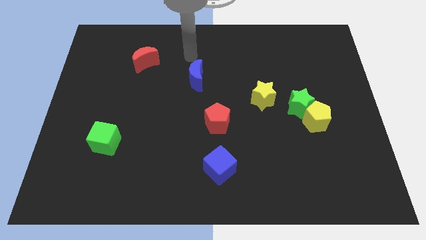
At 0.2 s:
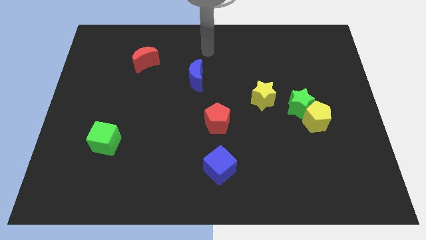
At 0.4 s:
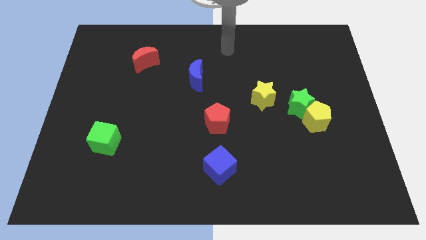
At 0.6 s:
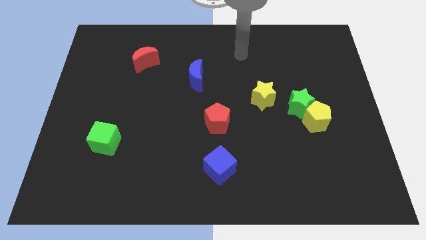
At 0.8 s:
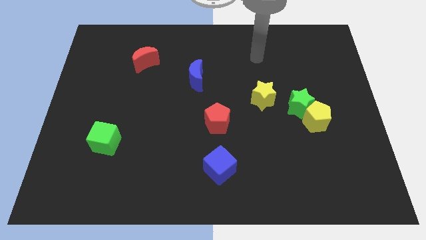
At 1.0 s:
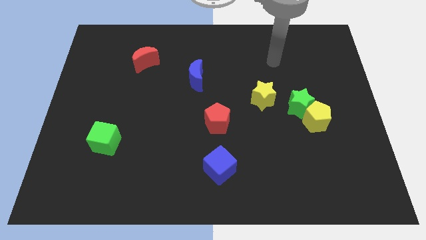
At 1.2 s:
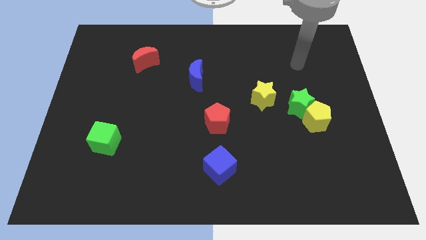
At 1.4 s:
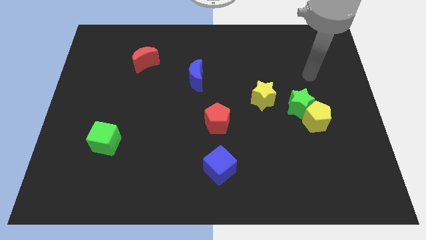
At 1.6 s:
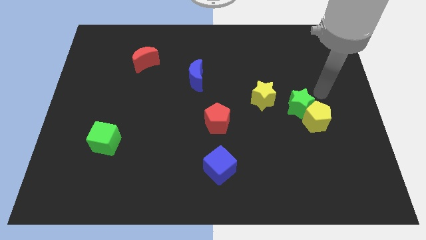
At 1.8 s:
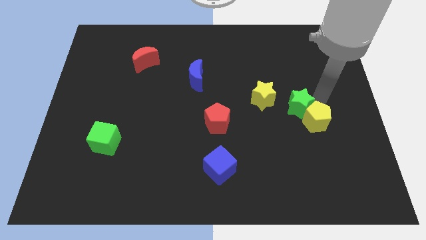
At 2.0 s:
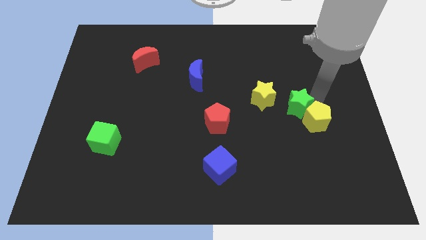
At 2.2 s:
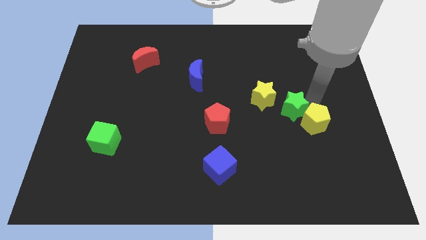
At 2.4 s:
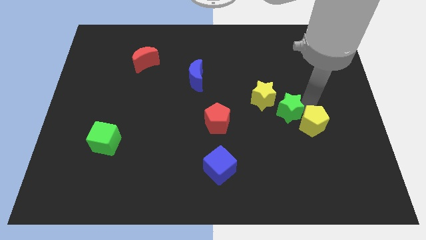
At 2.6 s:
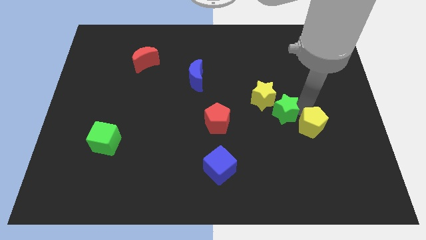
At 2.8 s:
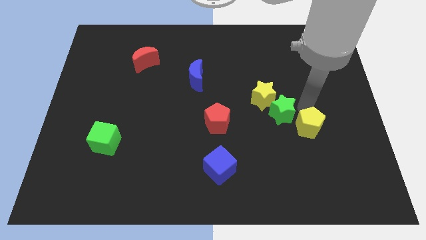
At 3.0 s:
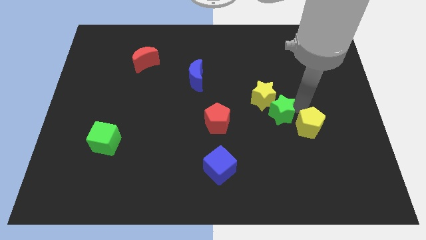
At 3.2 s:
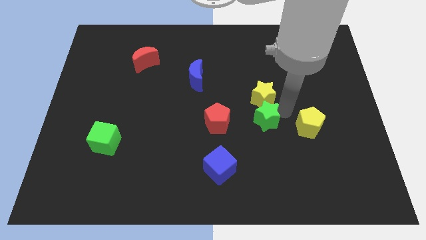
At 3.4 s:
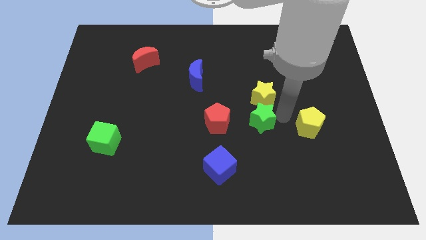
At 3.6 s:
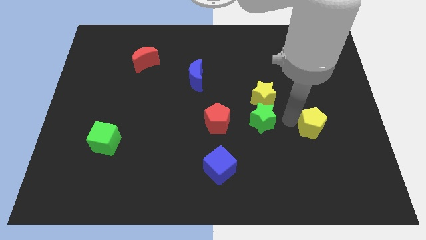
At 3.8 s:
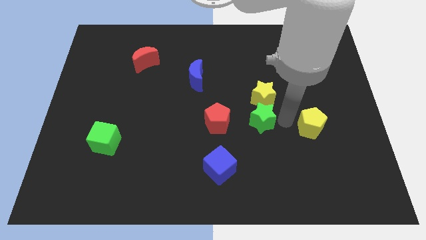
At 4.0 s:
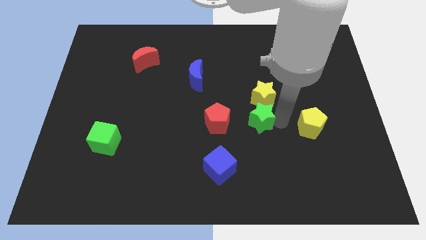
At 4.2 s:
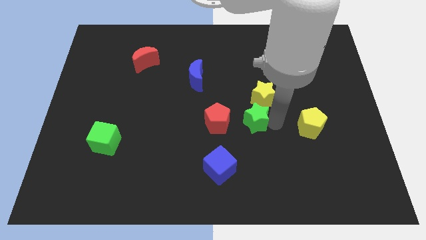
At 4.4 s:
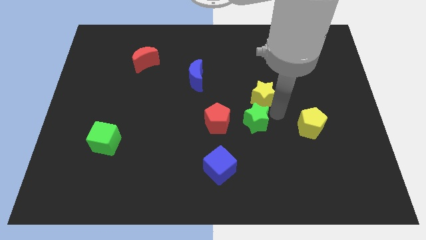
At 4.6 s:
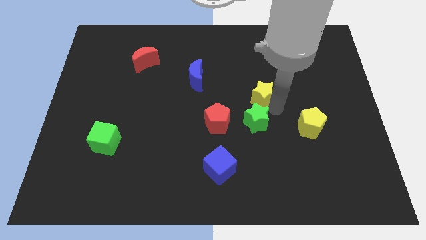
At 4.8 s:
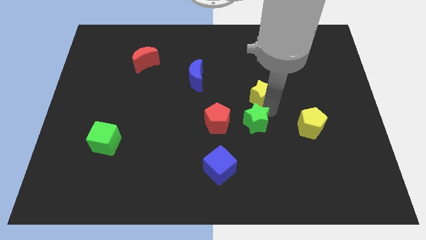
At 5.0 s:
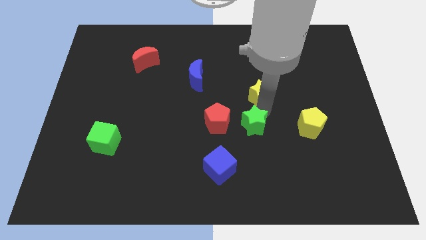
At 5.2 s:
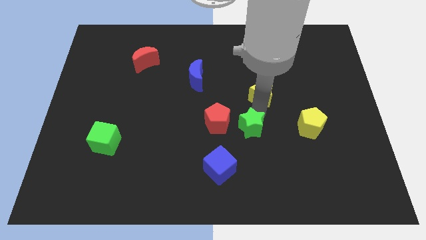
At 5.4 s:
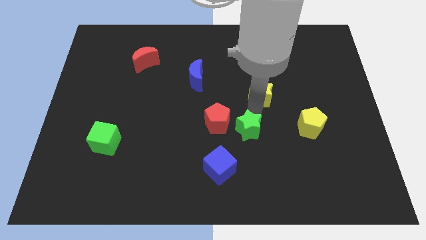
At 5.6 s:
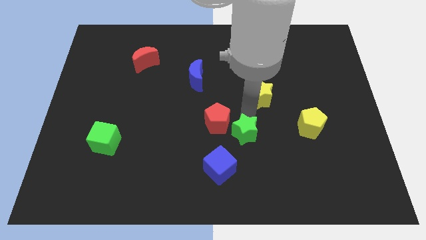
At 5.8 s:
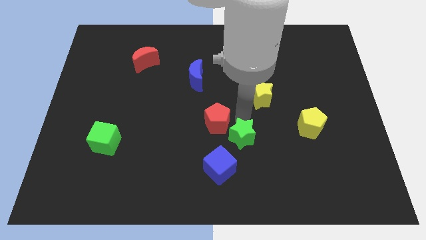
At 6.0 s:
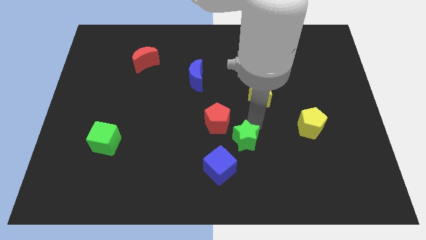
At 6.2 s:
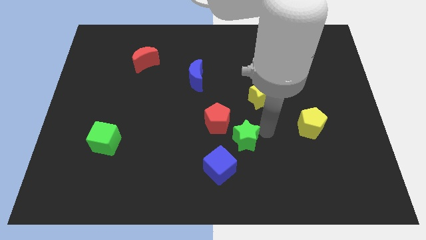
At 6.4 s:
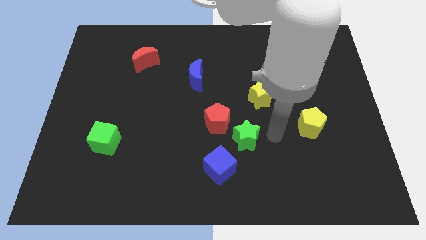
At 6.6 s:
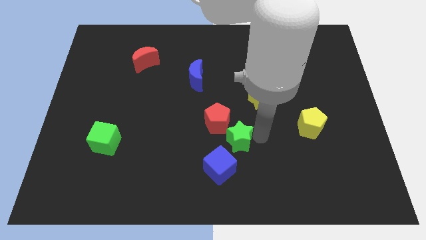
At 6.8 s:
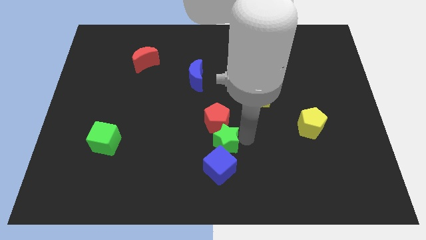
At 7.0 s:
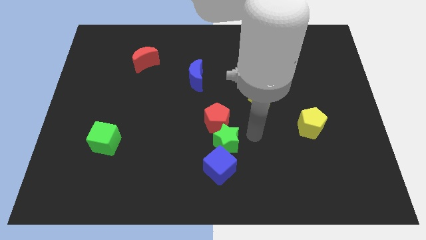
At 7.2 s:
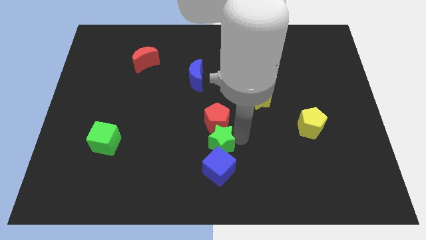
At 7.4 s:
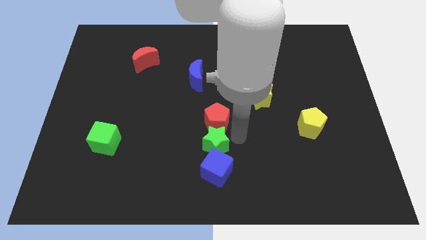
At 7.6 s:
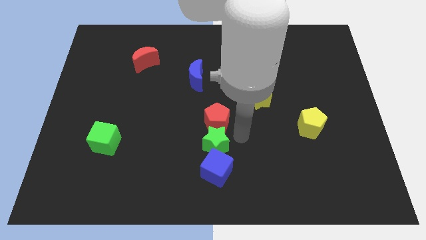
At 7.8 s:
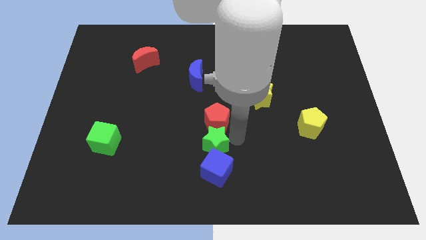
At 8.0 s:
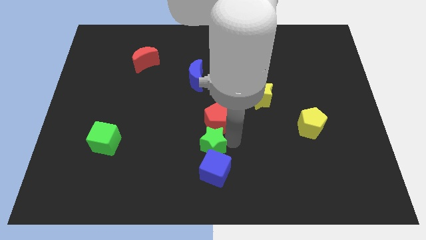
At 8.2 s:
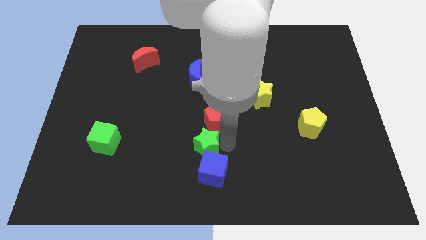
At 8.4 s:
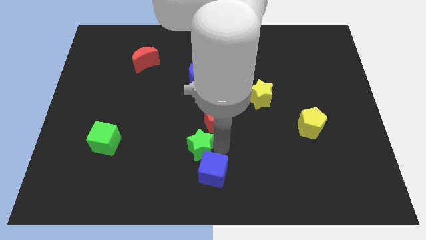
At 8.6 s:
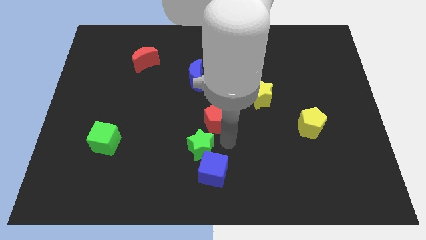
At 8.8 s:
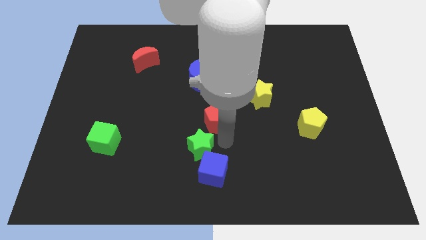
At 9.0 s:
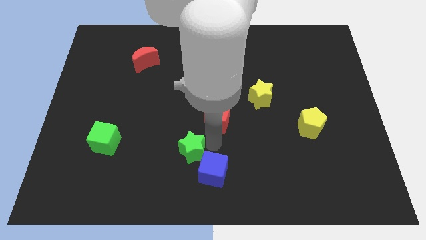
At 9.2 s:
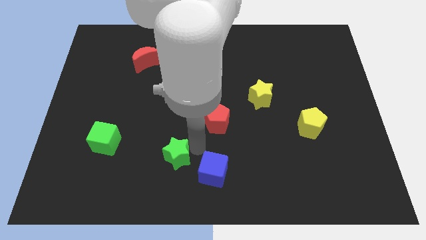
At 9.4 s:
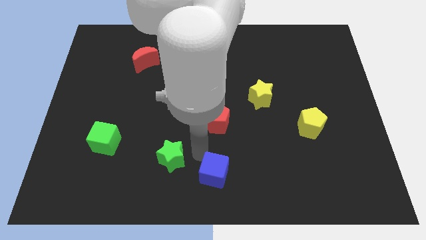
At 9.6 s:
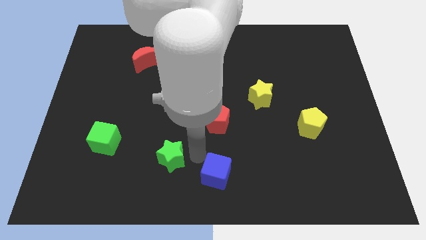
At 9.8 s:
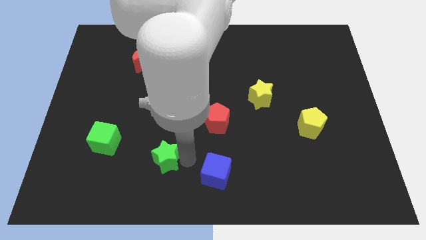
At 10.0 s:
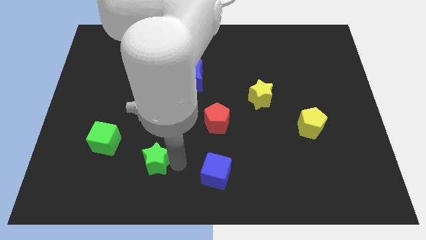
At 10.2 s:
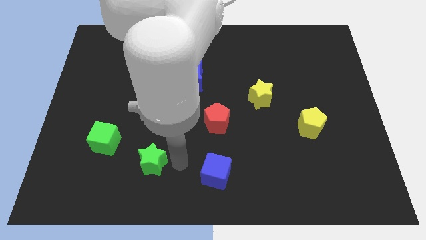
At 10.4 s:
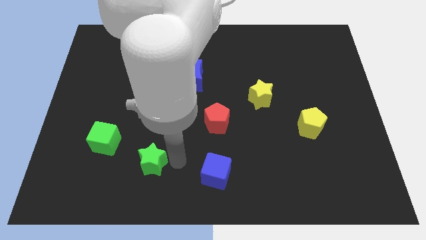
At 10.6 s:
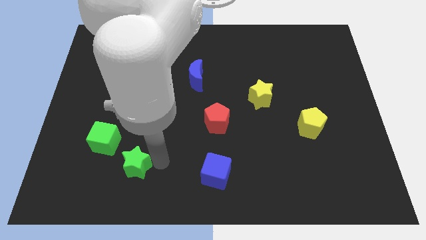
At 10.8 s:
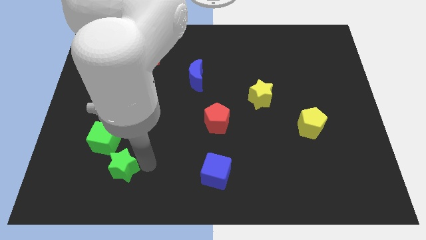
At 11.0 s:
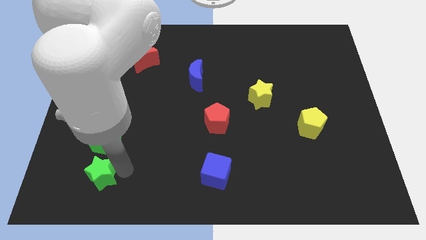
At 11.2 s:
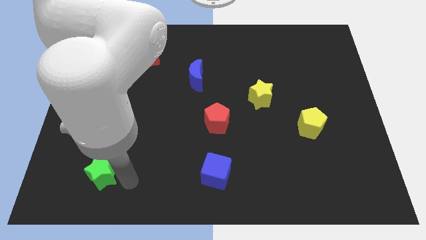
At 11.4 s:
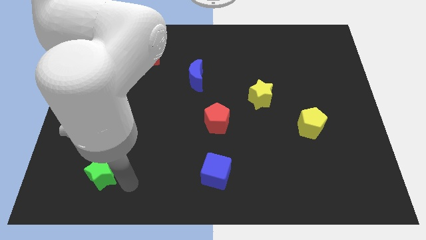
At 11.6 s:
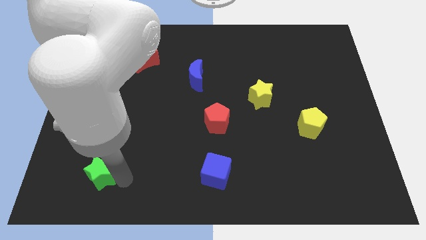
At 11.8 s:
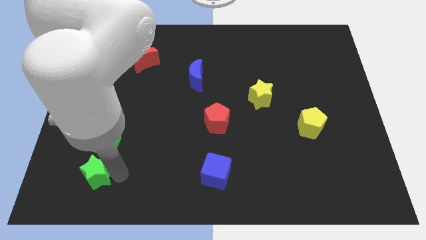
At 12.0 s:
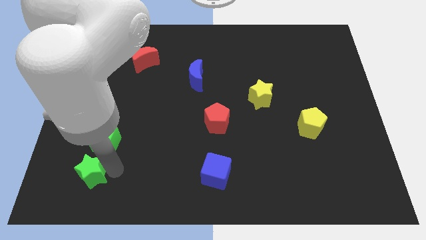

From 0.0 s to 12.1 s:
push the green star to the bottom left side of the green cube
